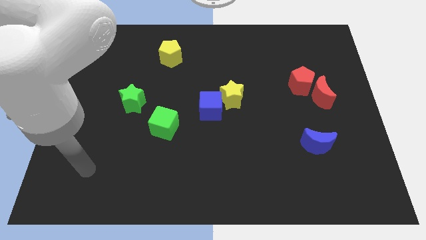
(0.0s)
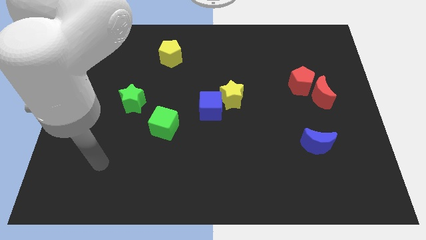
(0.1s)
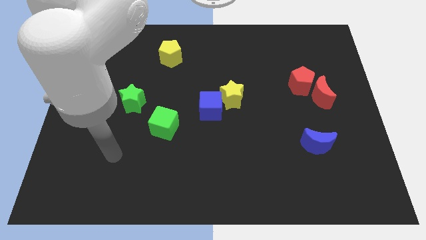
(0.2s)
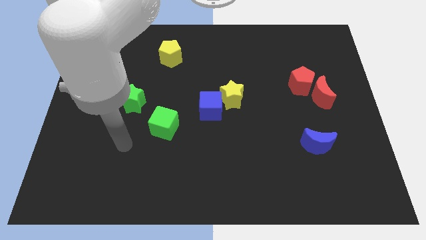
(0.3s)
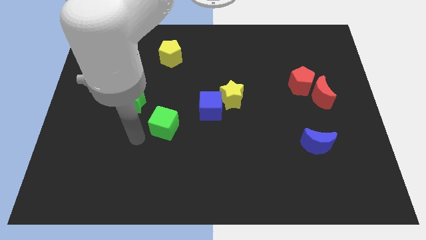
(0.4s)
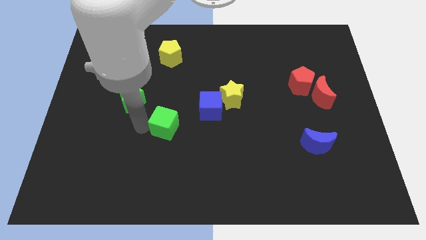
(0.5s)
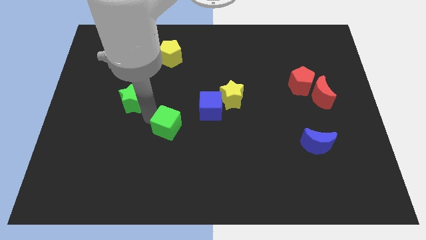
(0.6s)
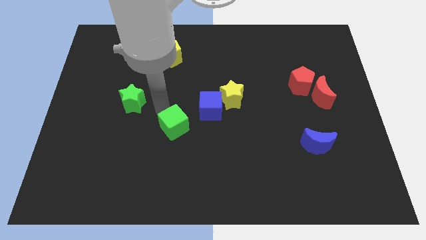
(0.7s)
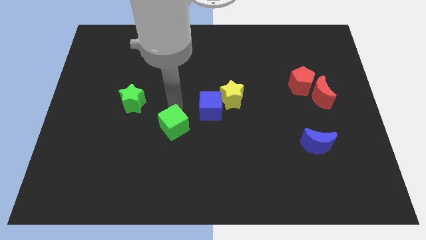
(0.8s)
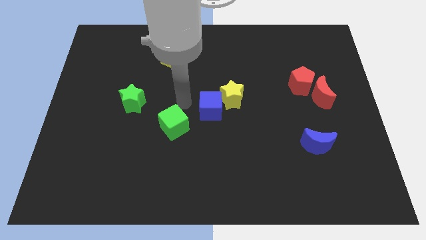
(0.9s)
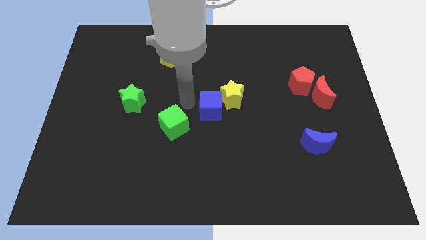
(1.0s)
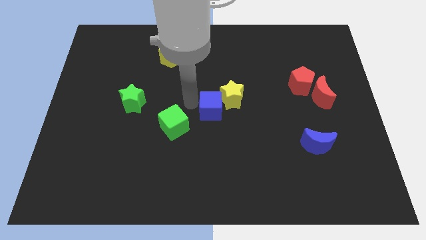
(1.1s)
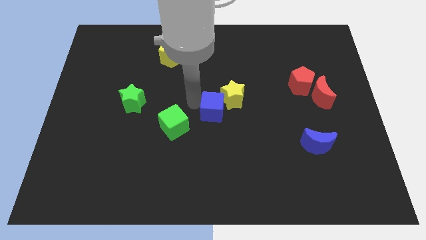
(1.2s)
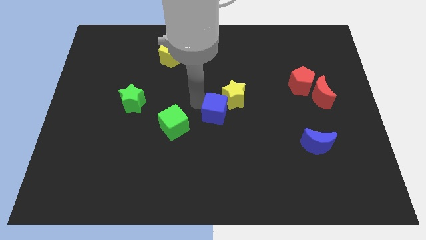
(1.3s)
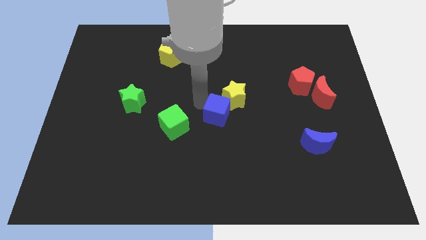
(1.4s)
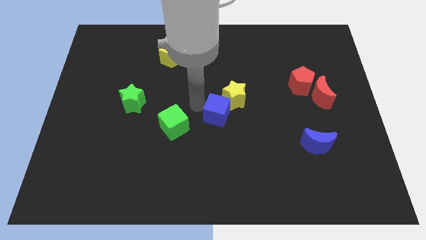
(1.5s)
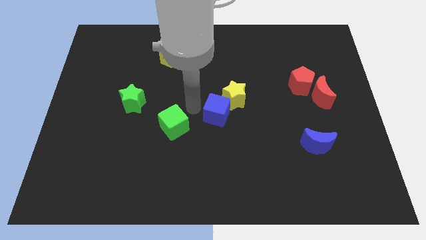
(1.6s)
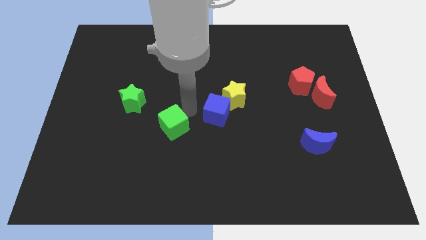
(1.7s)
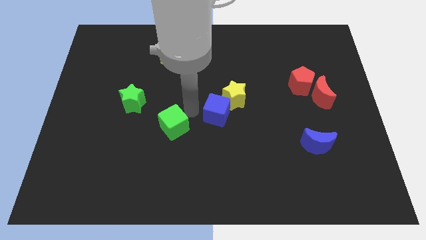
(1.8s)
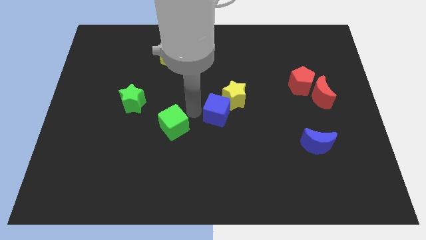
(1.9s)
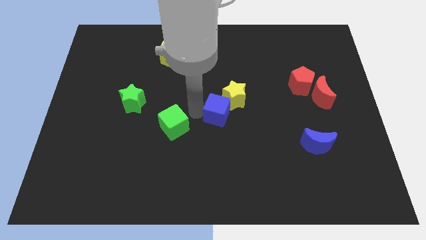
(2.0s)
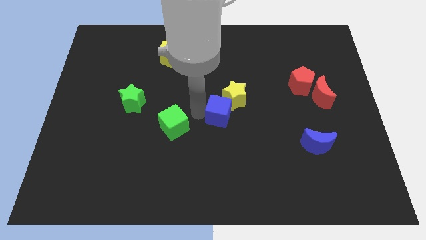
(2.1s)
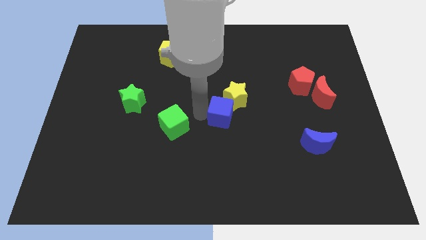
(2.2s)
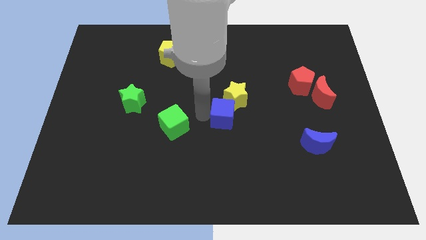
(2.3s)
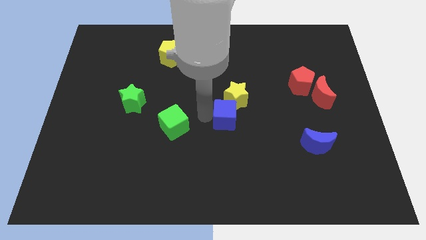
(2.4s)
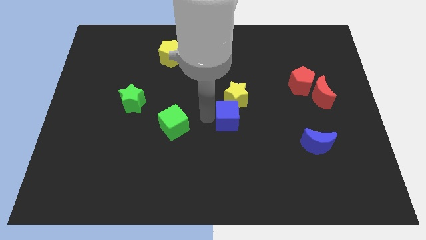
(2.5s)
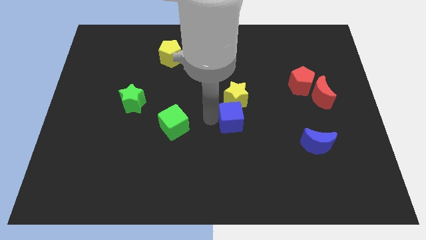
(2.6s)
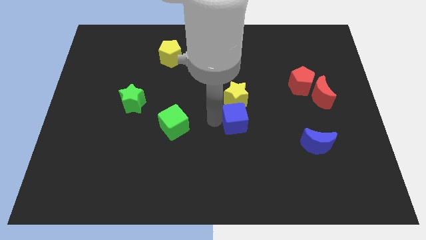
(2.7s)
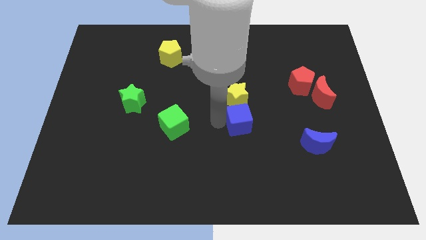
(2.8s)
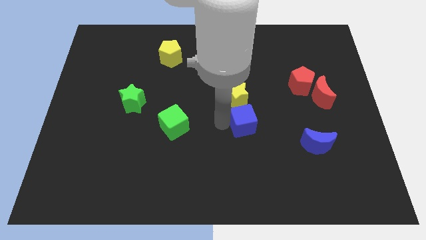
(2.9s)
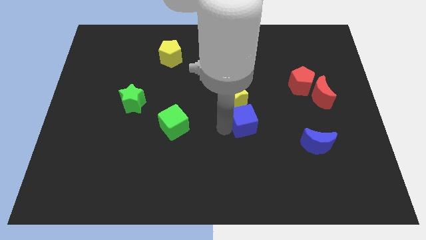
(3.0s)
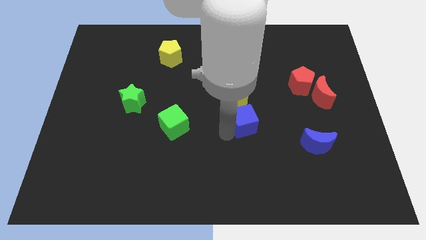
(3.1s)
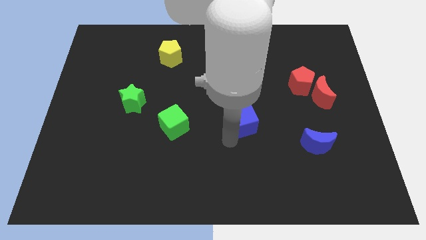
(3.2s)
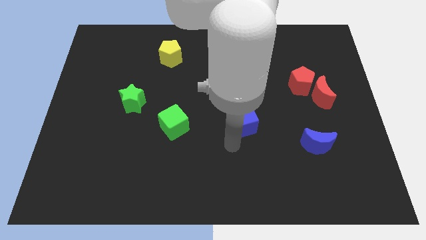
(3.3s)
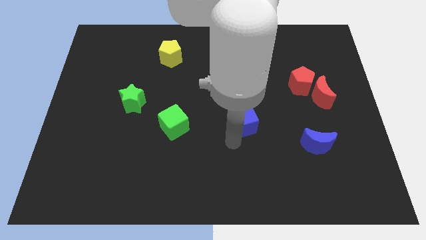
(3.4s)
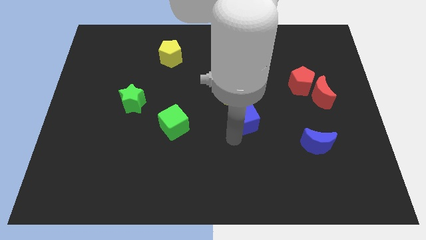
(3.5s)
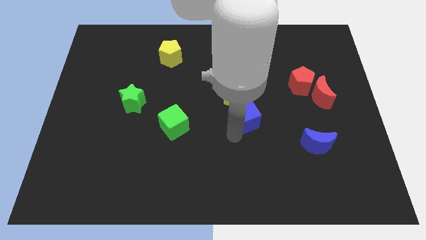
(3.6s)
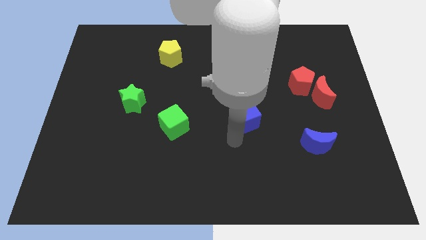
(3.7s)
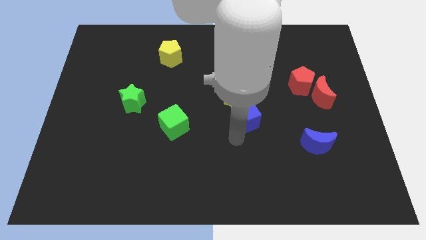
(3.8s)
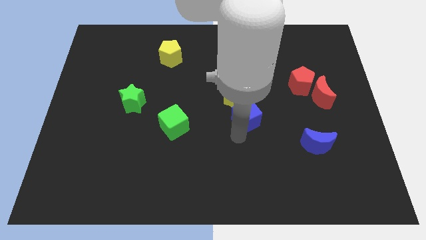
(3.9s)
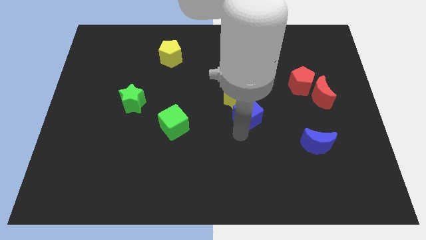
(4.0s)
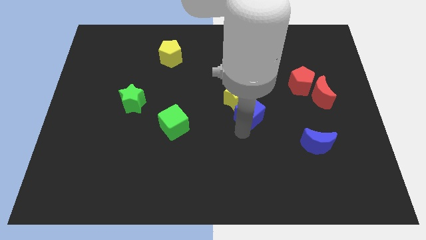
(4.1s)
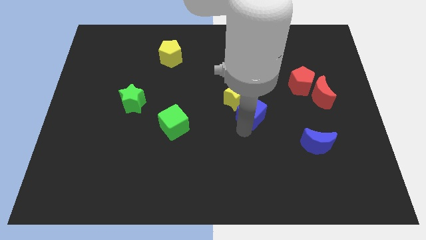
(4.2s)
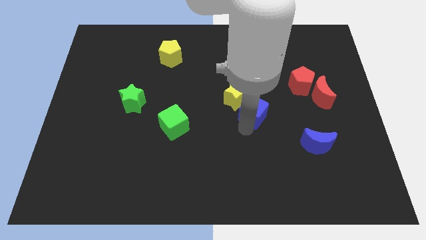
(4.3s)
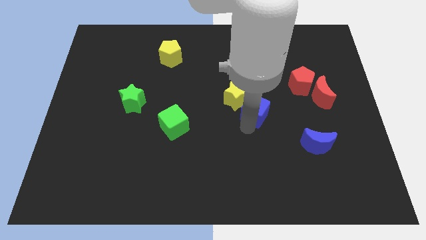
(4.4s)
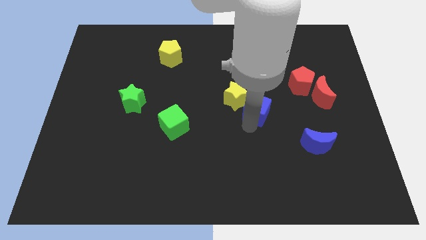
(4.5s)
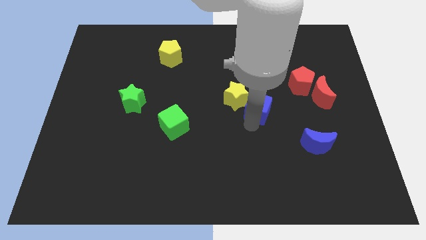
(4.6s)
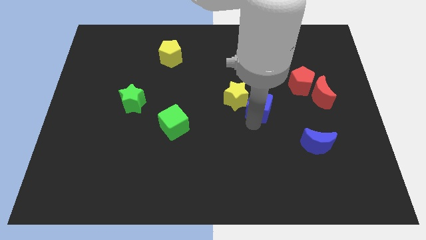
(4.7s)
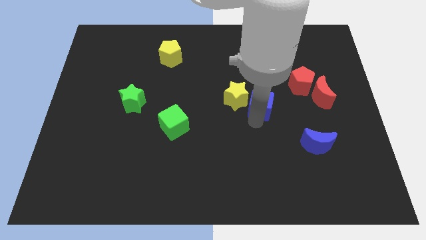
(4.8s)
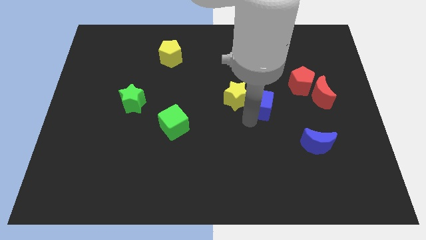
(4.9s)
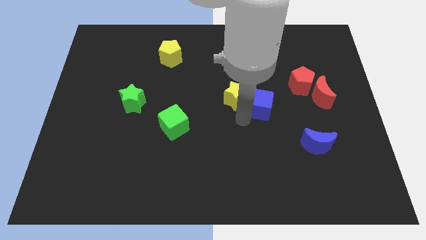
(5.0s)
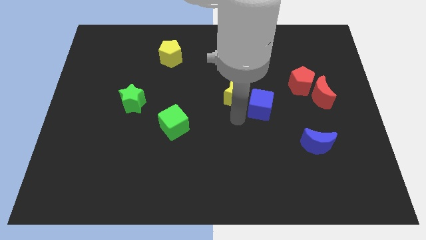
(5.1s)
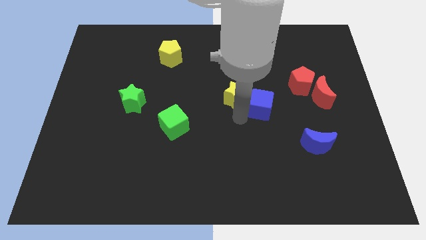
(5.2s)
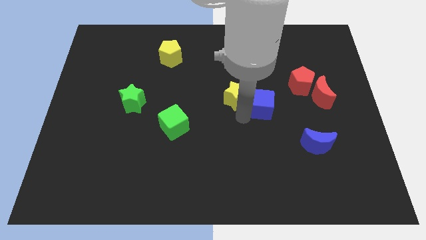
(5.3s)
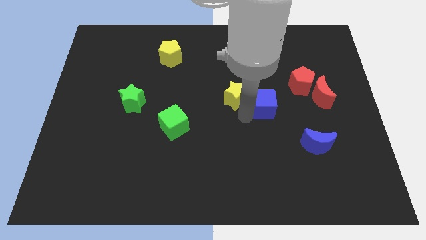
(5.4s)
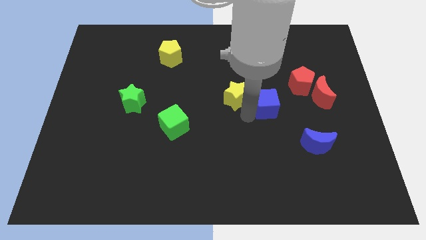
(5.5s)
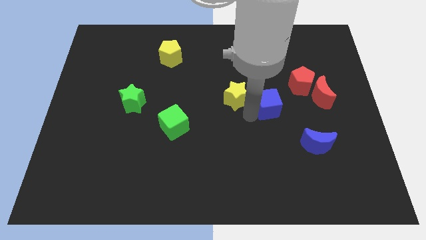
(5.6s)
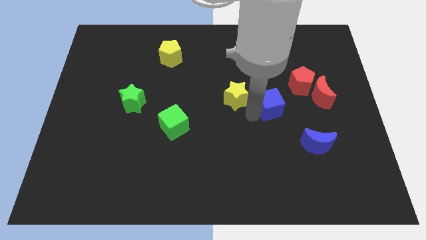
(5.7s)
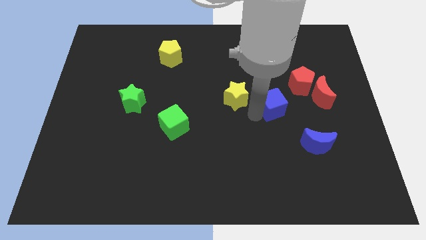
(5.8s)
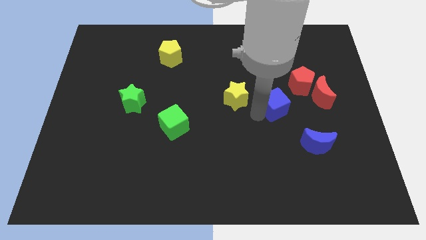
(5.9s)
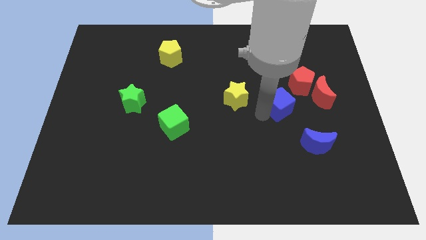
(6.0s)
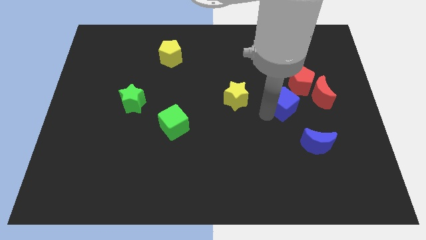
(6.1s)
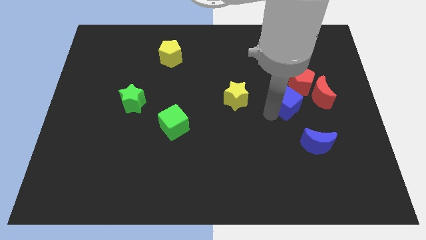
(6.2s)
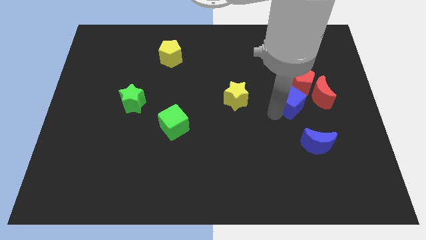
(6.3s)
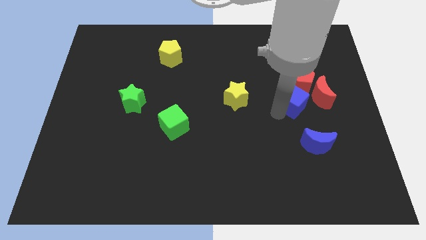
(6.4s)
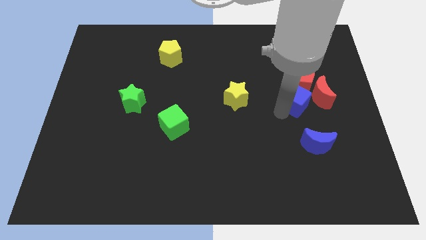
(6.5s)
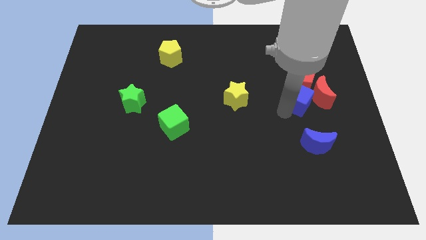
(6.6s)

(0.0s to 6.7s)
slide the blue cube next to the red pentagon
